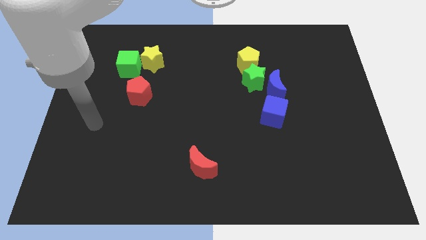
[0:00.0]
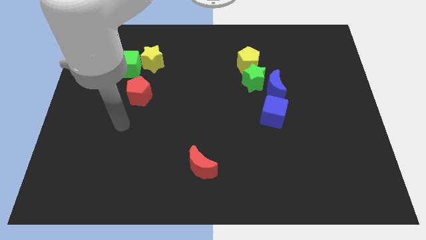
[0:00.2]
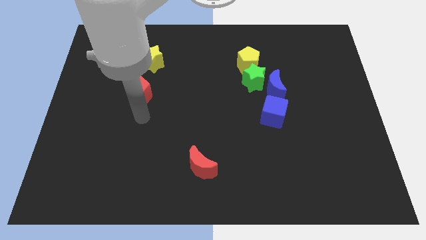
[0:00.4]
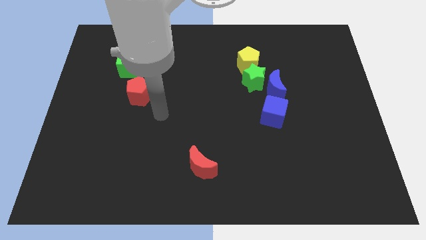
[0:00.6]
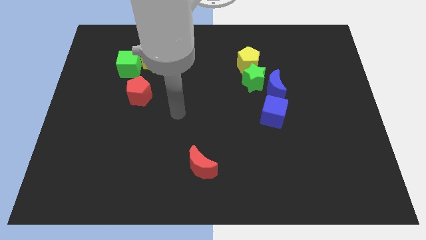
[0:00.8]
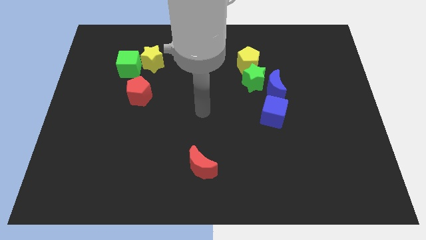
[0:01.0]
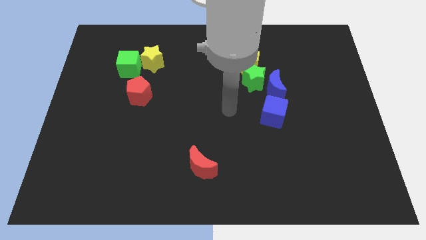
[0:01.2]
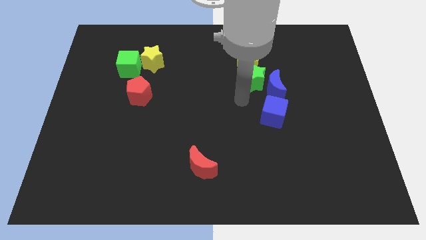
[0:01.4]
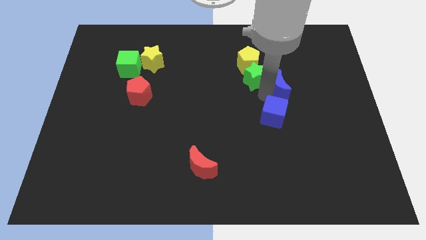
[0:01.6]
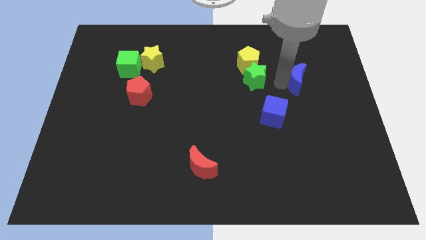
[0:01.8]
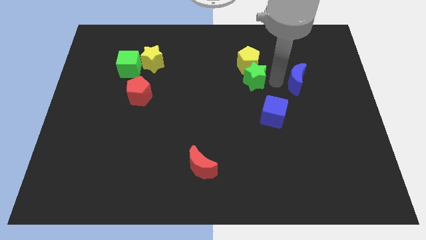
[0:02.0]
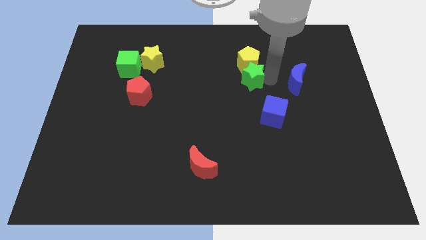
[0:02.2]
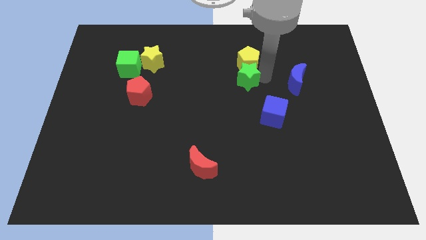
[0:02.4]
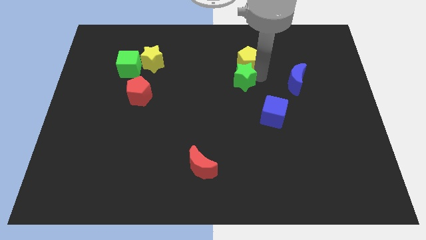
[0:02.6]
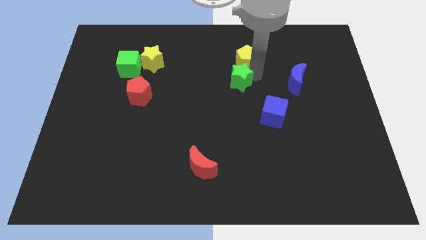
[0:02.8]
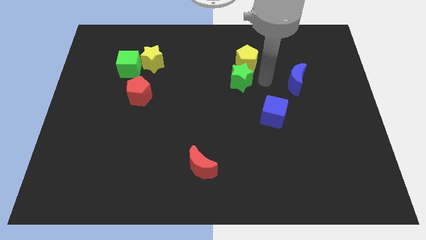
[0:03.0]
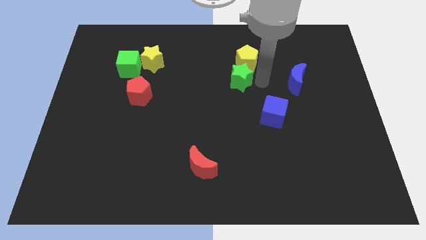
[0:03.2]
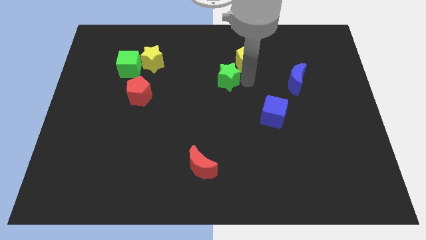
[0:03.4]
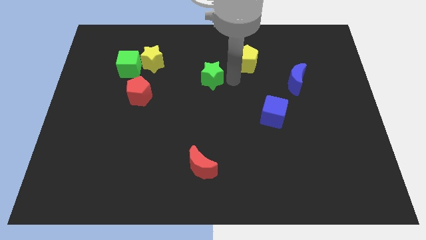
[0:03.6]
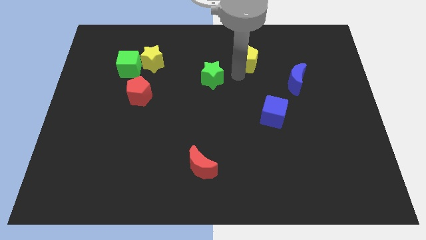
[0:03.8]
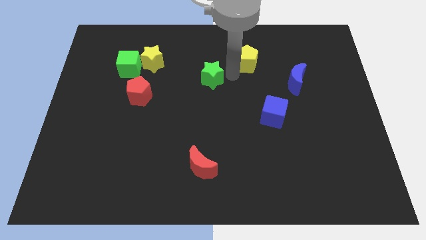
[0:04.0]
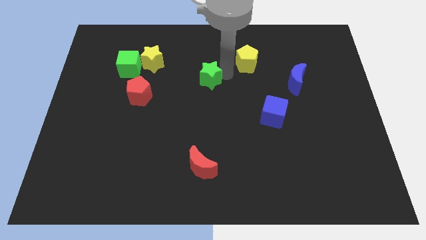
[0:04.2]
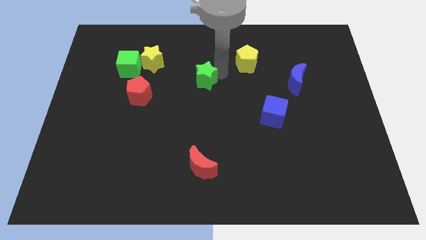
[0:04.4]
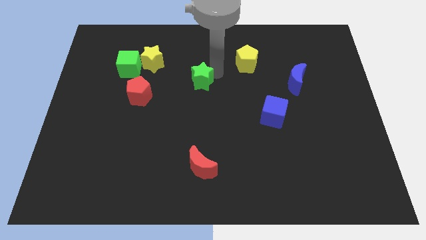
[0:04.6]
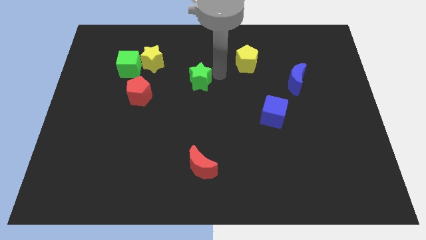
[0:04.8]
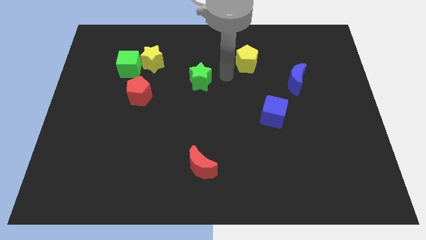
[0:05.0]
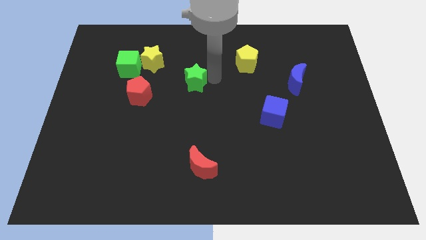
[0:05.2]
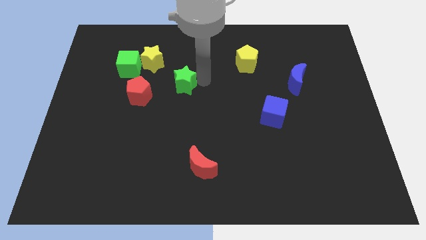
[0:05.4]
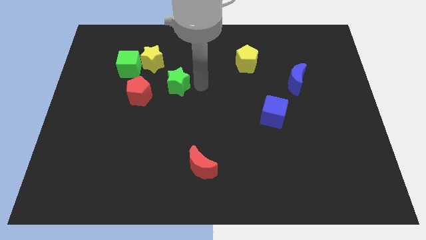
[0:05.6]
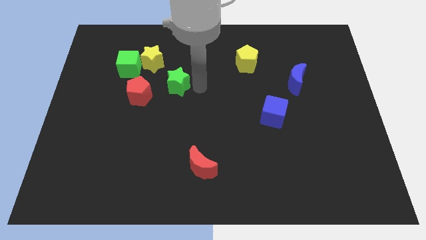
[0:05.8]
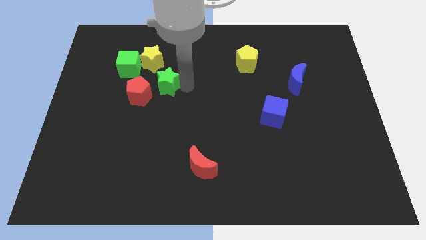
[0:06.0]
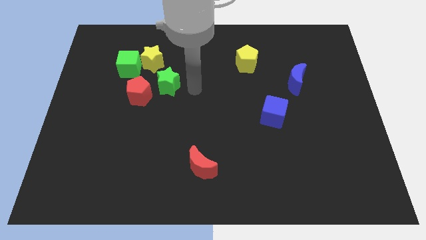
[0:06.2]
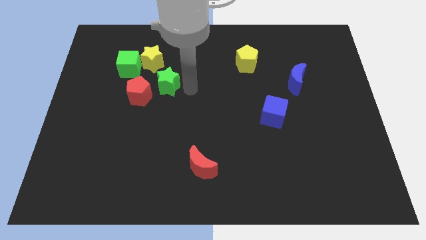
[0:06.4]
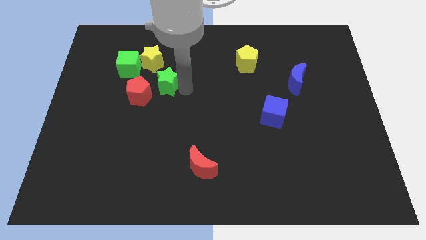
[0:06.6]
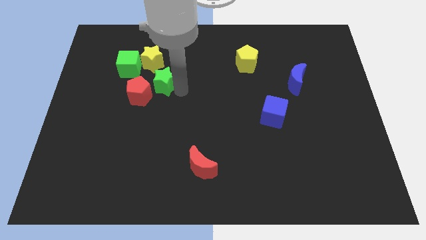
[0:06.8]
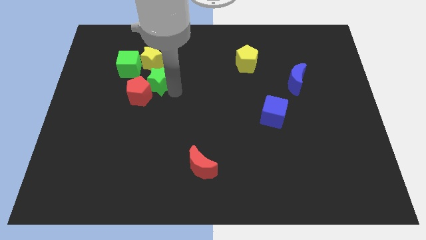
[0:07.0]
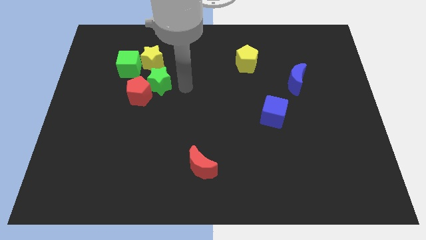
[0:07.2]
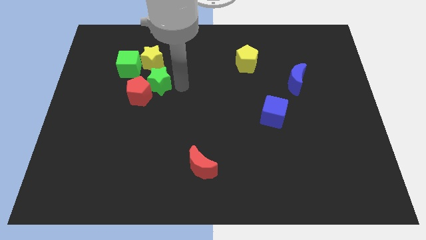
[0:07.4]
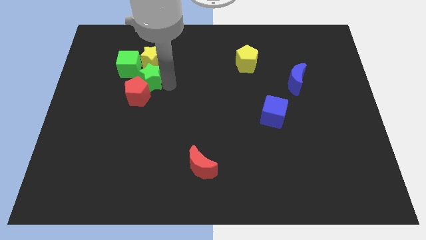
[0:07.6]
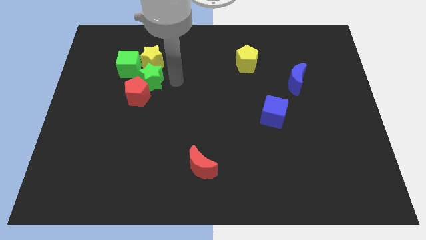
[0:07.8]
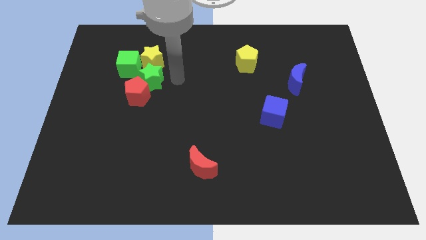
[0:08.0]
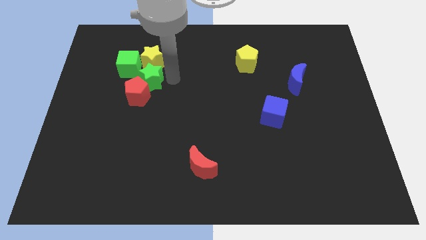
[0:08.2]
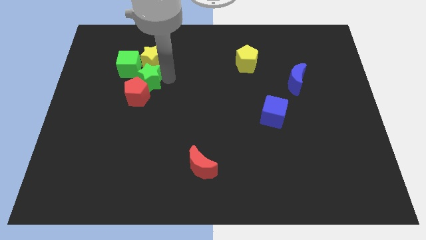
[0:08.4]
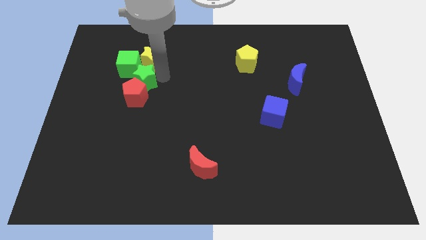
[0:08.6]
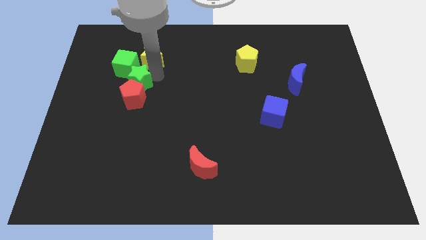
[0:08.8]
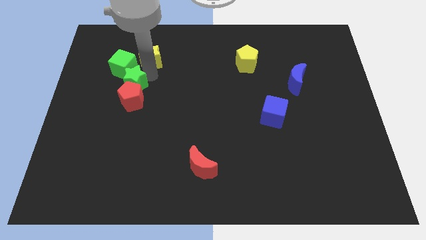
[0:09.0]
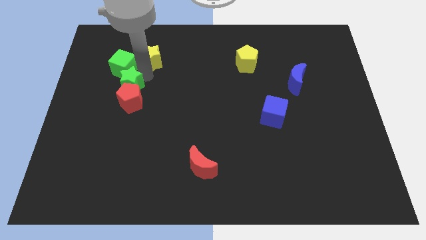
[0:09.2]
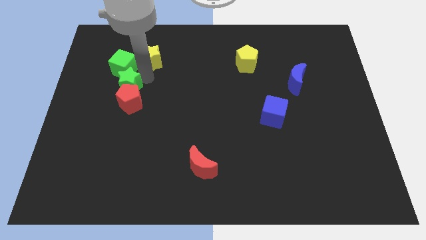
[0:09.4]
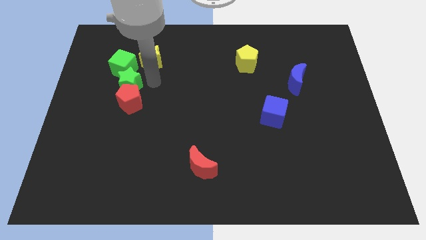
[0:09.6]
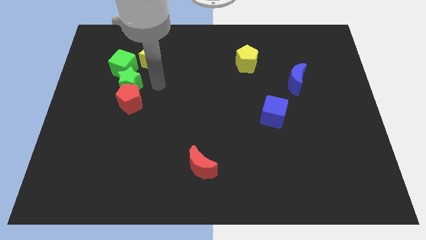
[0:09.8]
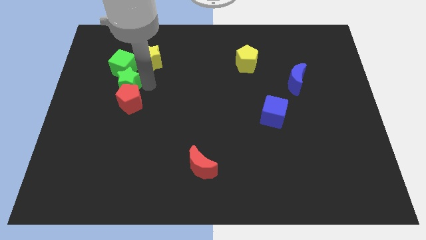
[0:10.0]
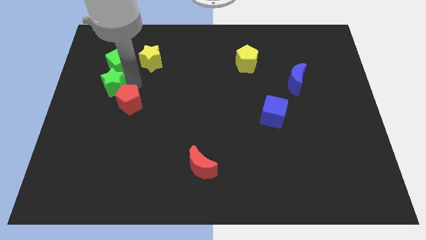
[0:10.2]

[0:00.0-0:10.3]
push the green star just left of the red pentagon

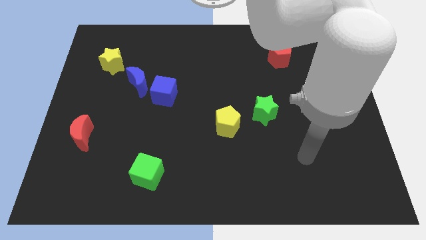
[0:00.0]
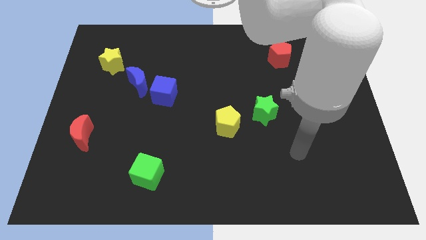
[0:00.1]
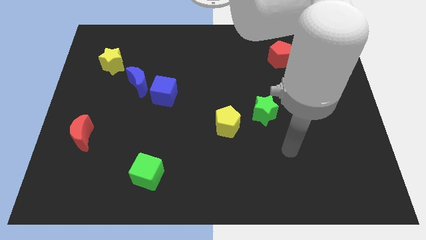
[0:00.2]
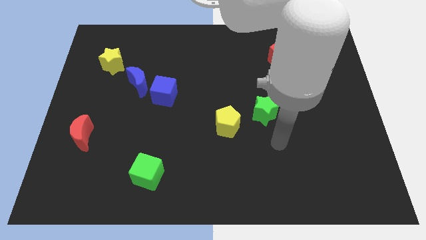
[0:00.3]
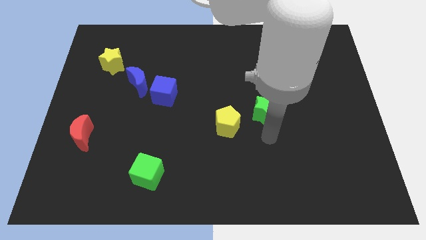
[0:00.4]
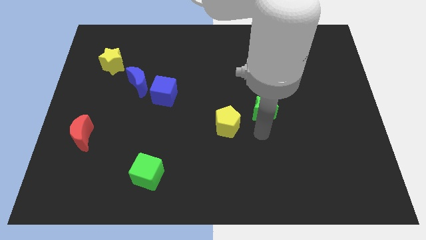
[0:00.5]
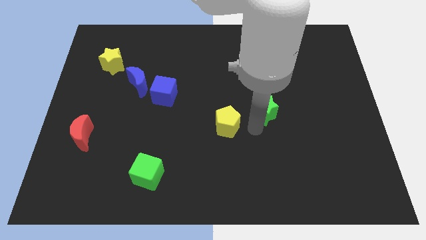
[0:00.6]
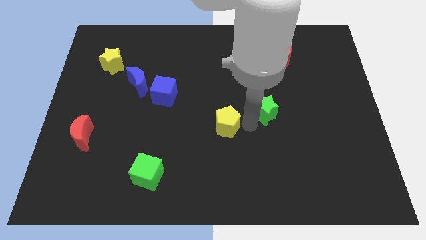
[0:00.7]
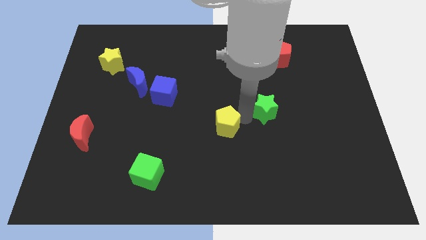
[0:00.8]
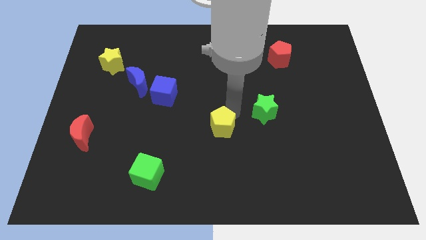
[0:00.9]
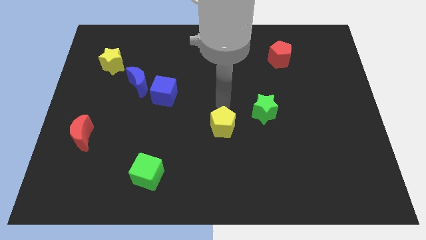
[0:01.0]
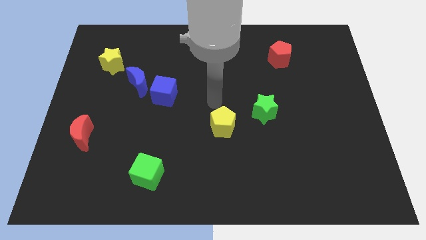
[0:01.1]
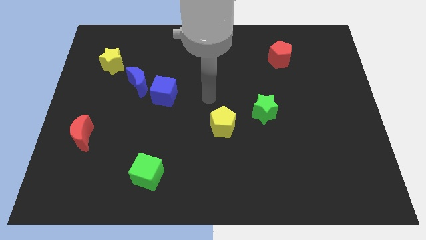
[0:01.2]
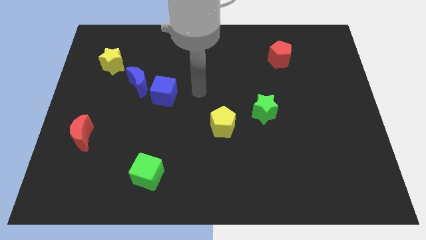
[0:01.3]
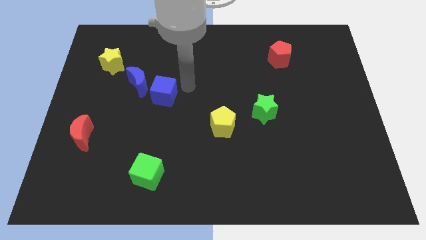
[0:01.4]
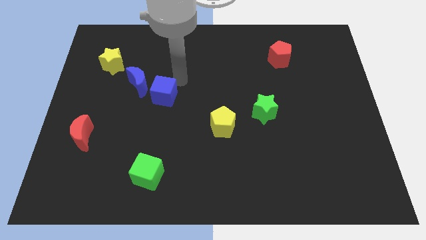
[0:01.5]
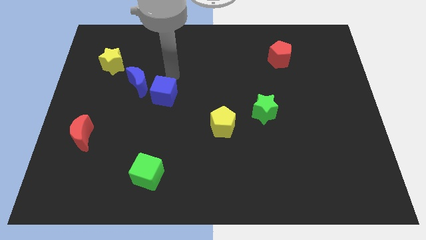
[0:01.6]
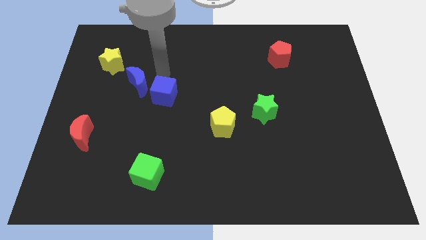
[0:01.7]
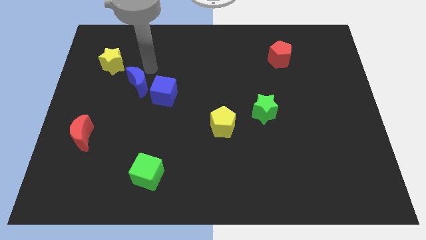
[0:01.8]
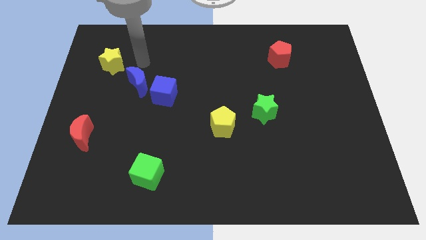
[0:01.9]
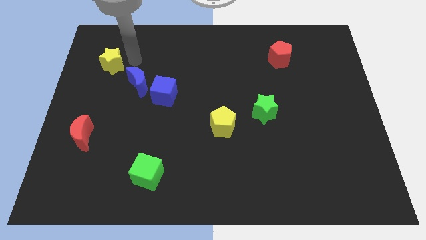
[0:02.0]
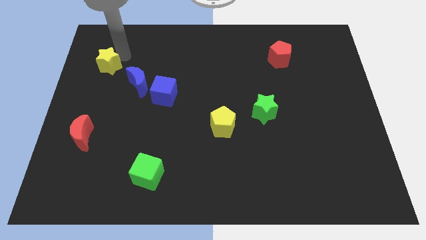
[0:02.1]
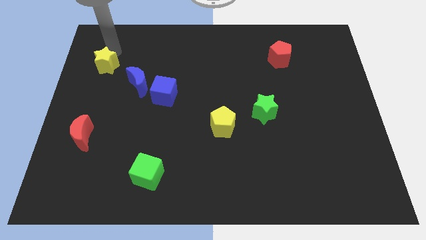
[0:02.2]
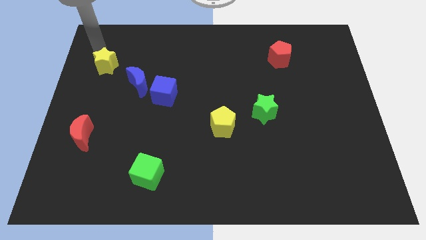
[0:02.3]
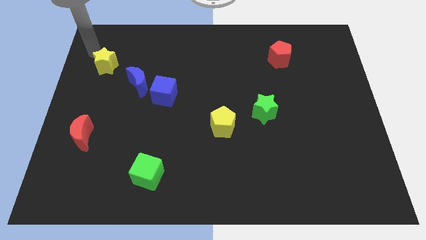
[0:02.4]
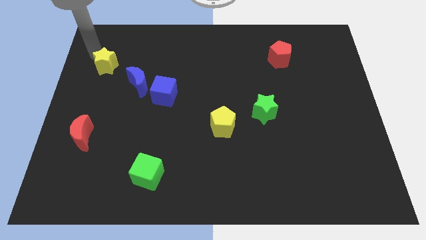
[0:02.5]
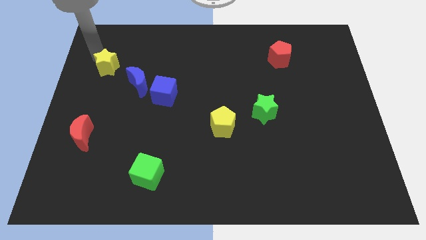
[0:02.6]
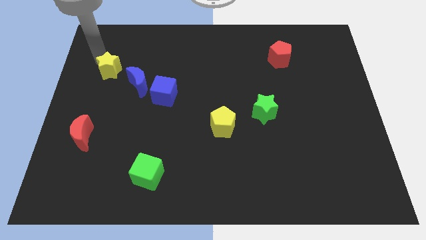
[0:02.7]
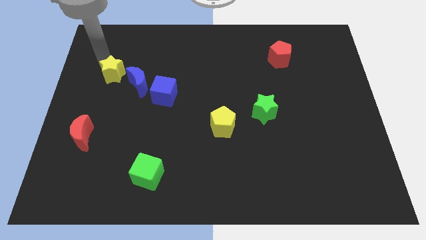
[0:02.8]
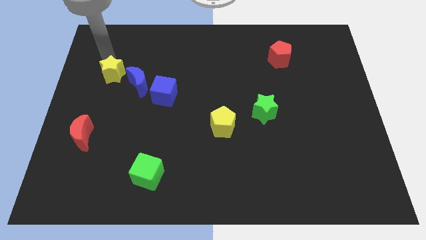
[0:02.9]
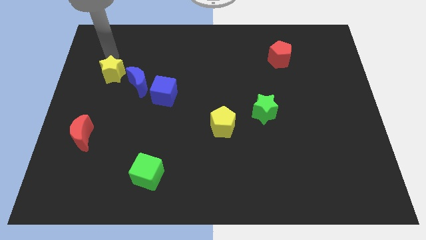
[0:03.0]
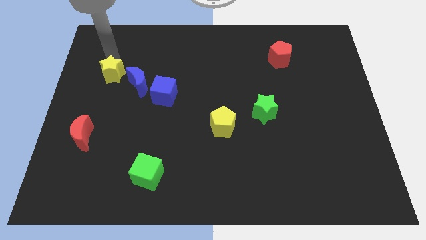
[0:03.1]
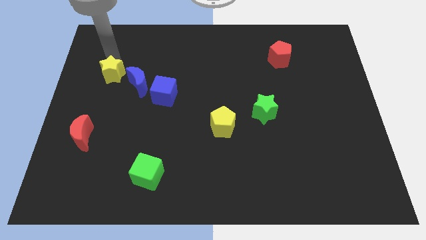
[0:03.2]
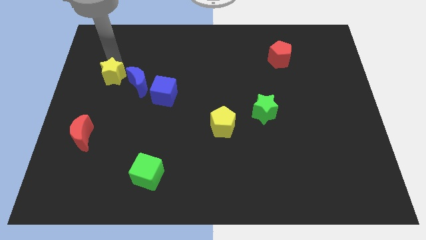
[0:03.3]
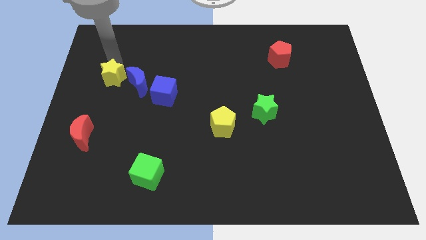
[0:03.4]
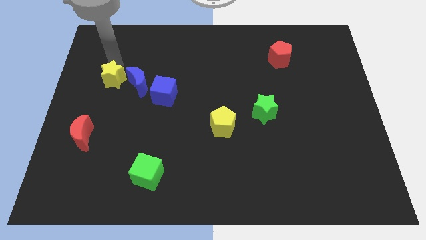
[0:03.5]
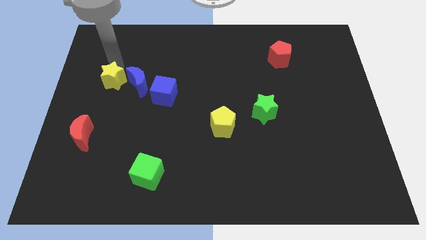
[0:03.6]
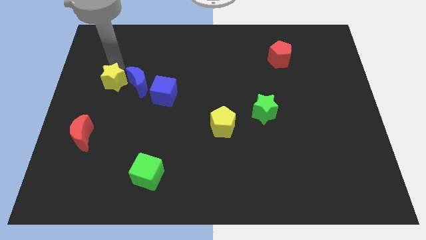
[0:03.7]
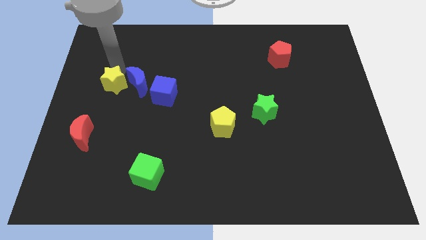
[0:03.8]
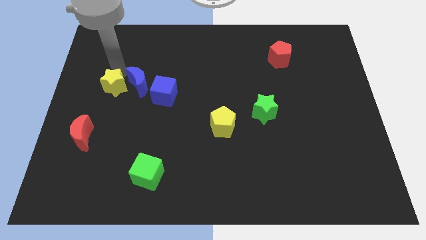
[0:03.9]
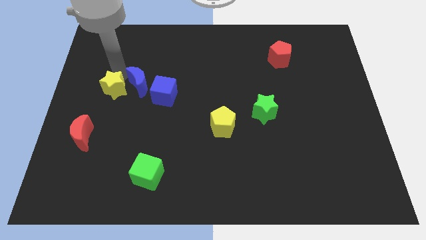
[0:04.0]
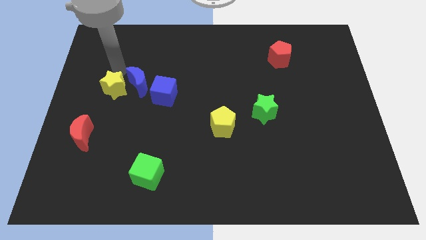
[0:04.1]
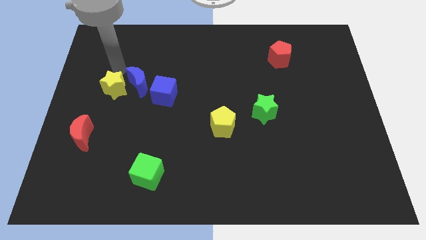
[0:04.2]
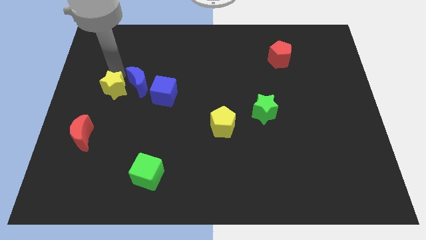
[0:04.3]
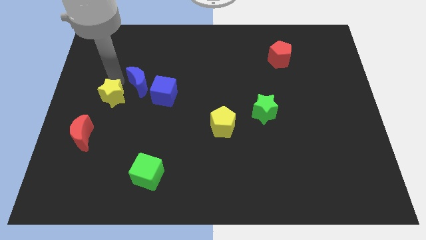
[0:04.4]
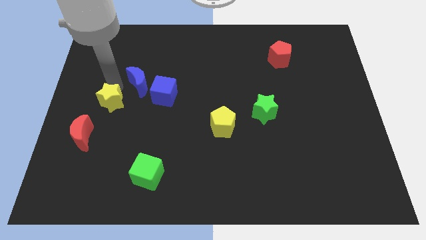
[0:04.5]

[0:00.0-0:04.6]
put the yellow star to the top right of the red moon
